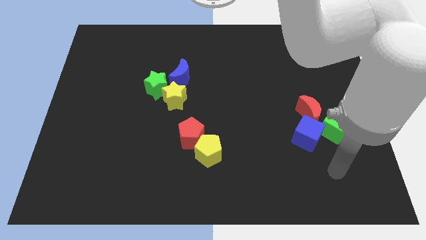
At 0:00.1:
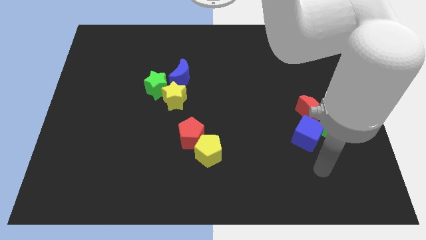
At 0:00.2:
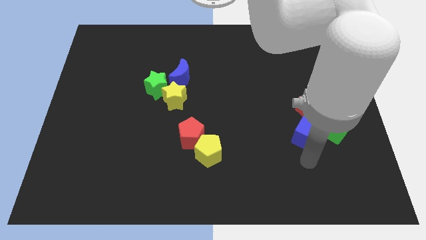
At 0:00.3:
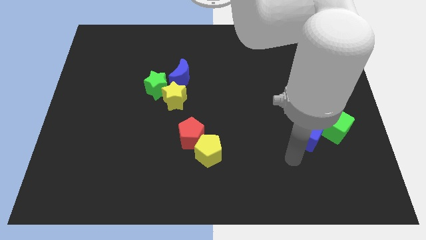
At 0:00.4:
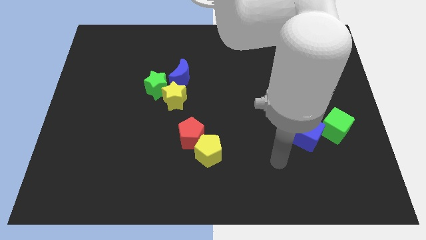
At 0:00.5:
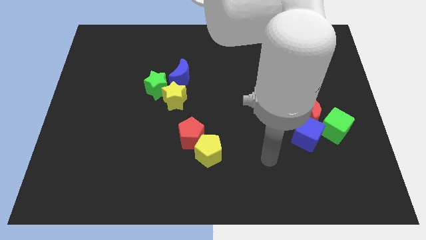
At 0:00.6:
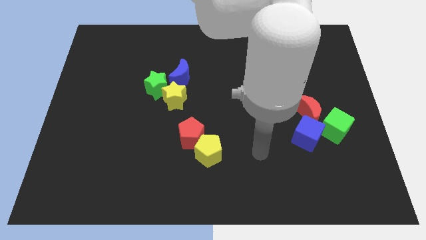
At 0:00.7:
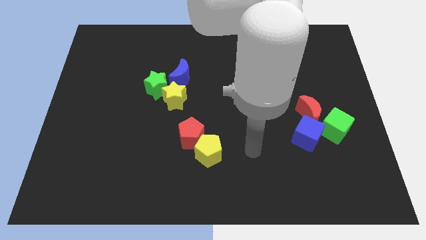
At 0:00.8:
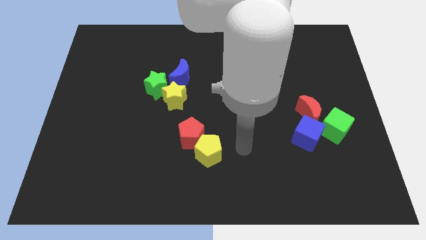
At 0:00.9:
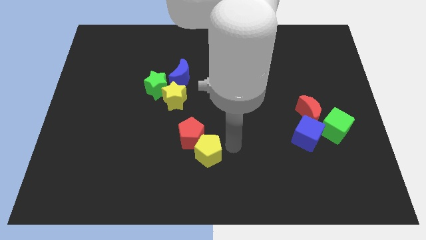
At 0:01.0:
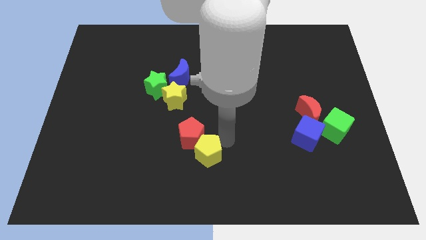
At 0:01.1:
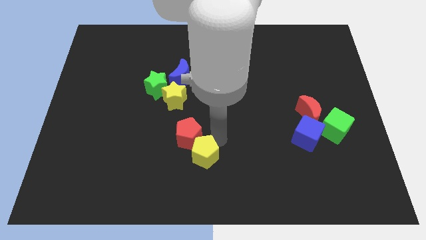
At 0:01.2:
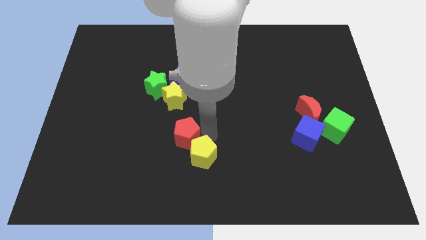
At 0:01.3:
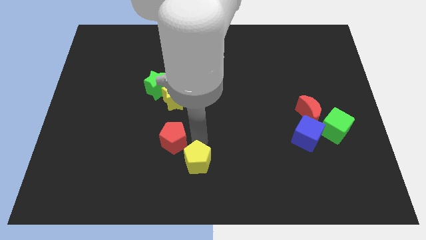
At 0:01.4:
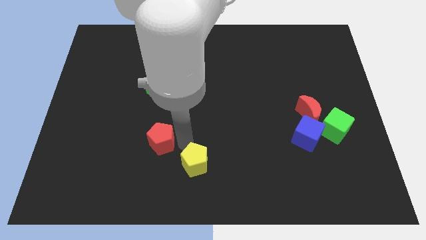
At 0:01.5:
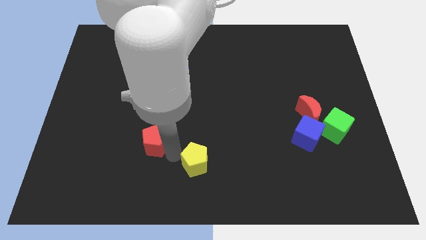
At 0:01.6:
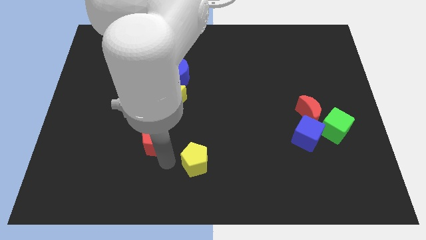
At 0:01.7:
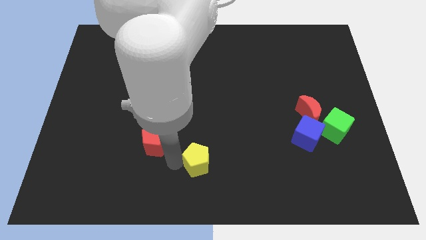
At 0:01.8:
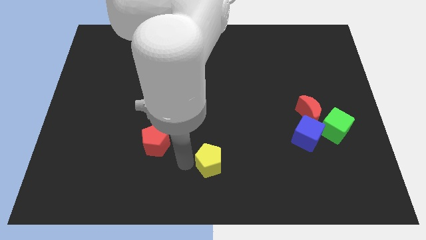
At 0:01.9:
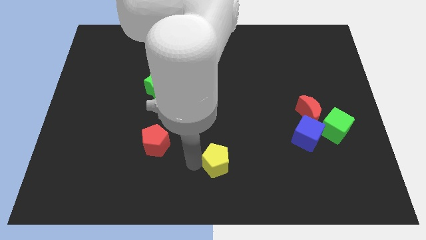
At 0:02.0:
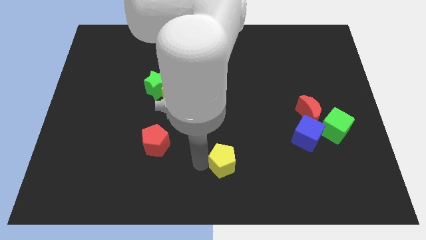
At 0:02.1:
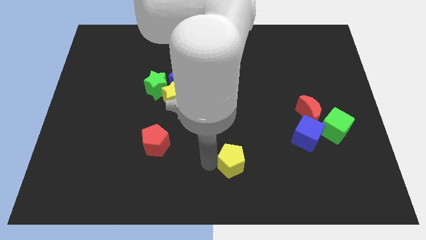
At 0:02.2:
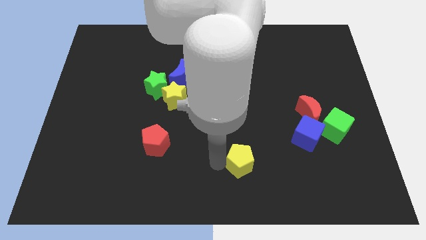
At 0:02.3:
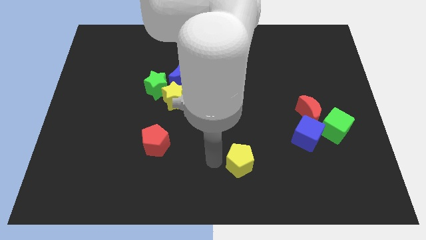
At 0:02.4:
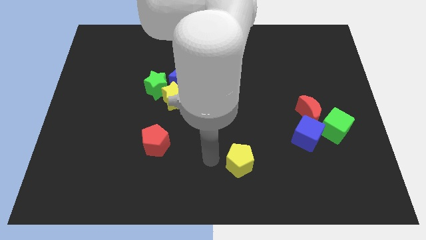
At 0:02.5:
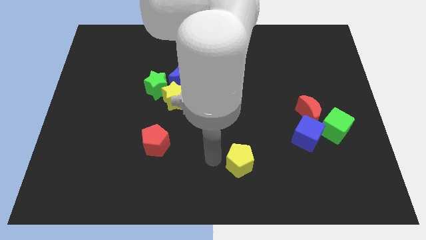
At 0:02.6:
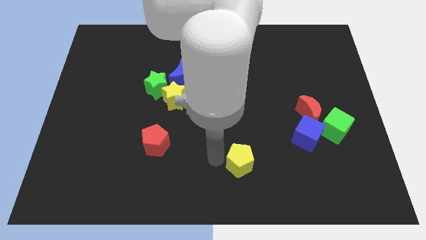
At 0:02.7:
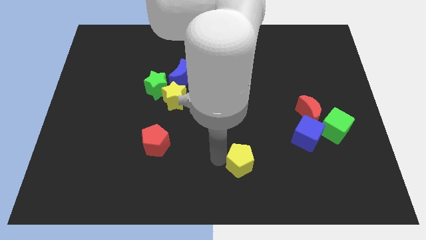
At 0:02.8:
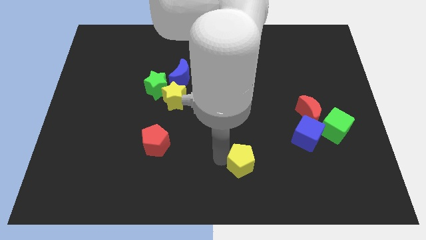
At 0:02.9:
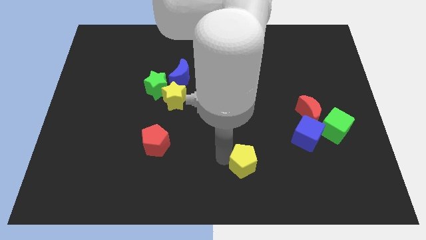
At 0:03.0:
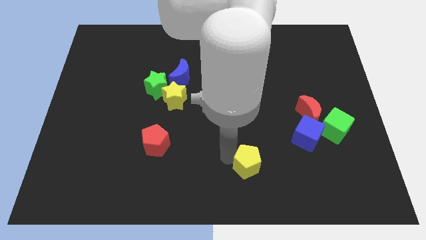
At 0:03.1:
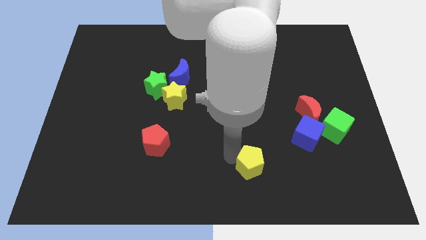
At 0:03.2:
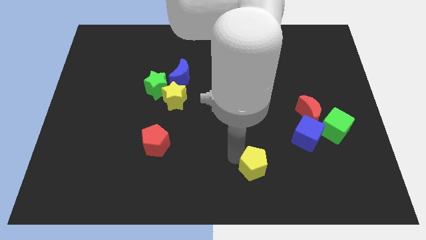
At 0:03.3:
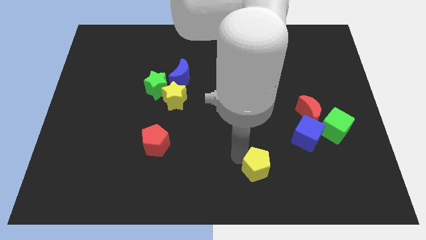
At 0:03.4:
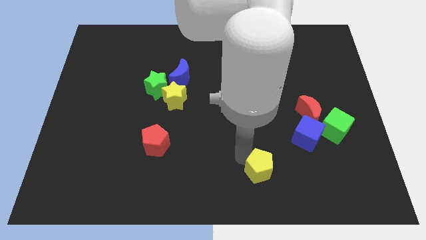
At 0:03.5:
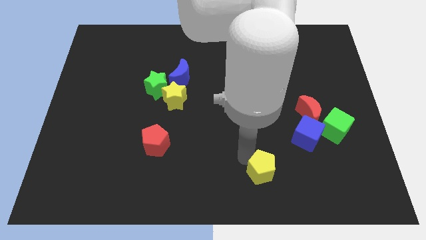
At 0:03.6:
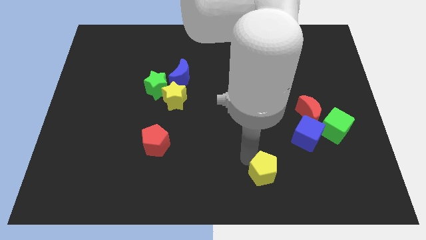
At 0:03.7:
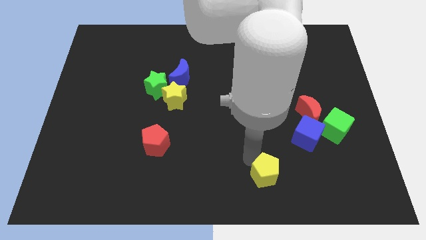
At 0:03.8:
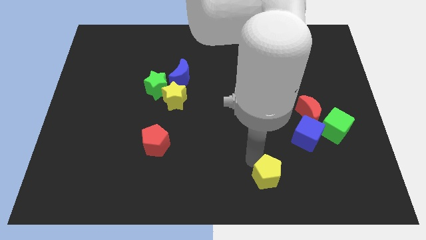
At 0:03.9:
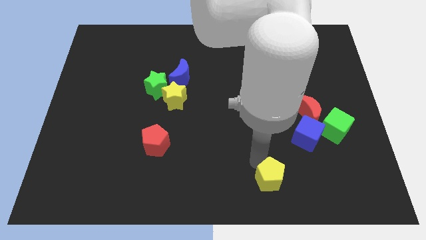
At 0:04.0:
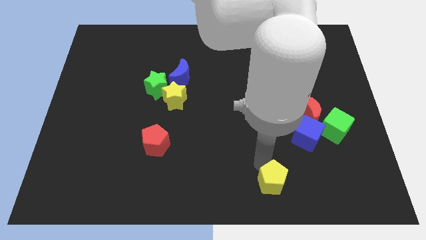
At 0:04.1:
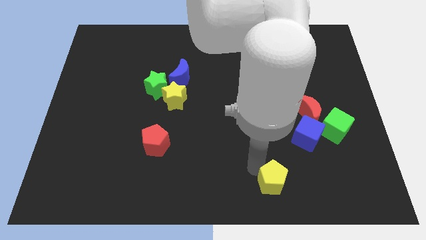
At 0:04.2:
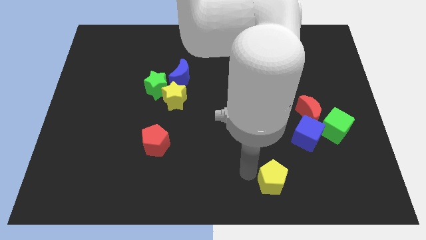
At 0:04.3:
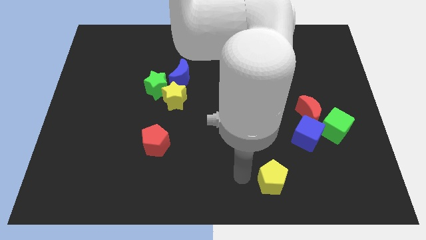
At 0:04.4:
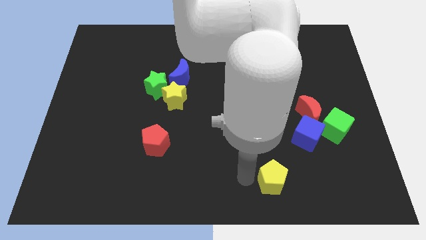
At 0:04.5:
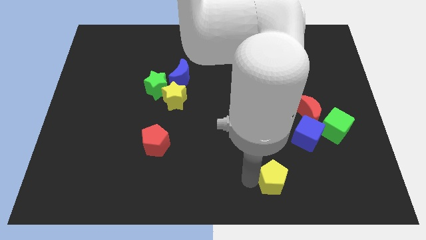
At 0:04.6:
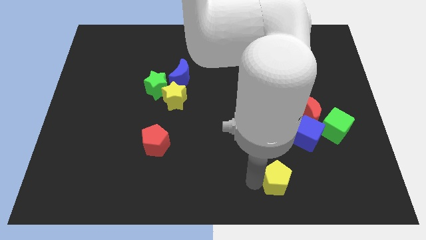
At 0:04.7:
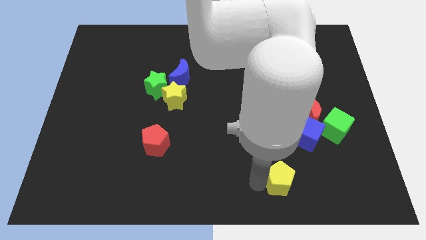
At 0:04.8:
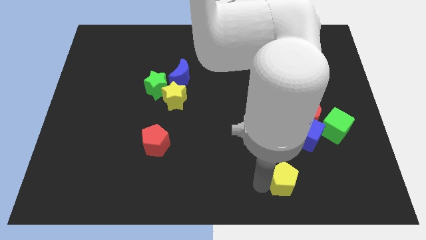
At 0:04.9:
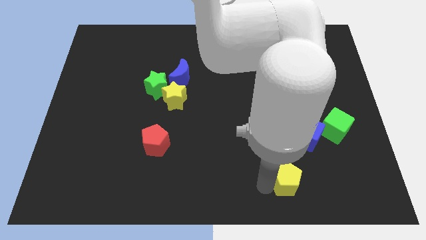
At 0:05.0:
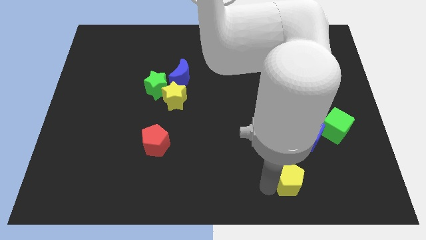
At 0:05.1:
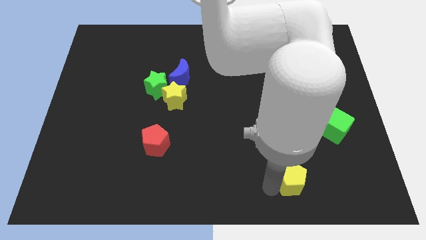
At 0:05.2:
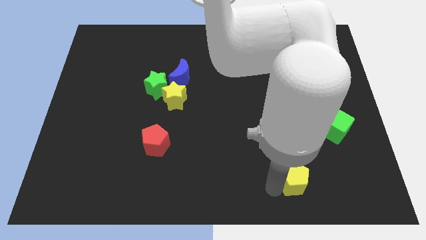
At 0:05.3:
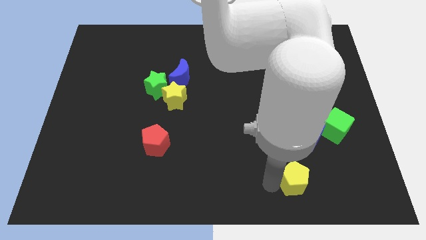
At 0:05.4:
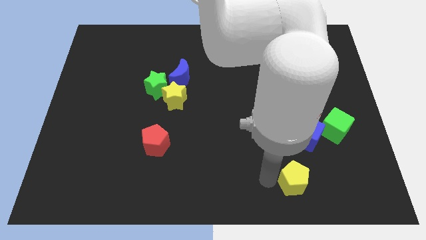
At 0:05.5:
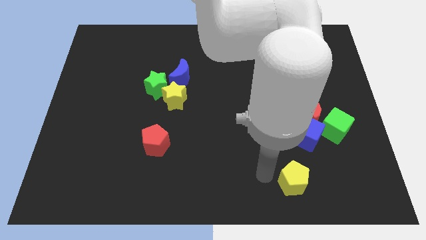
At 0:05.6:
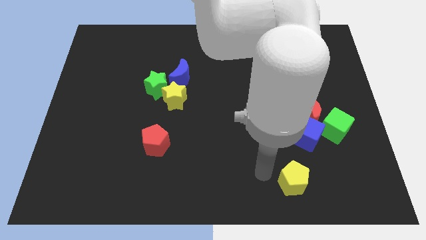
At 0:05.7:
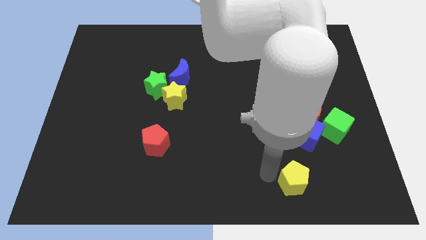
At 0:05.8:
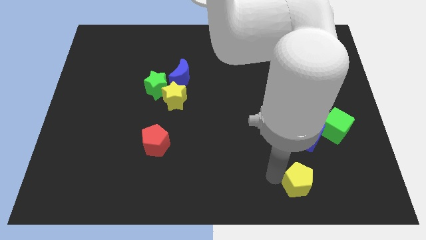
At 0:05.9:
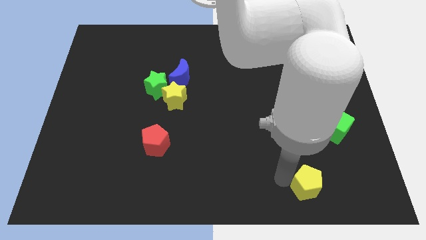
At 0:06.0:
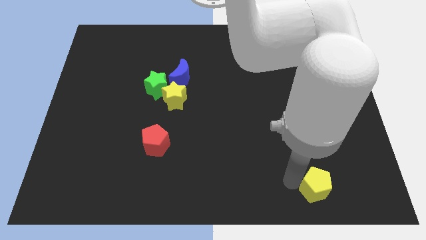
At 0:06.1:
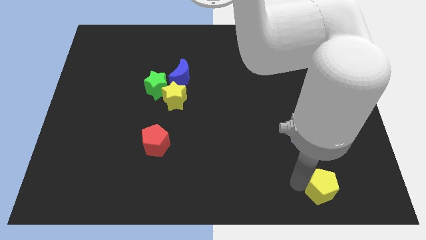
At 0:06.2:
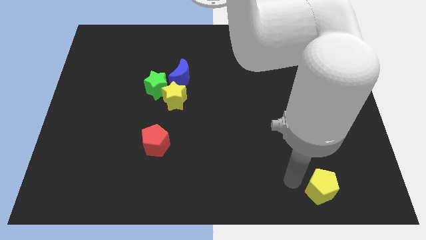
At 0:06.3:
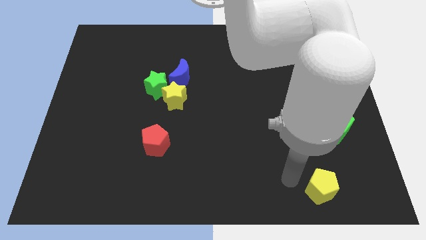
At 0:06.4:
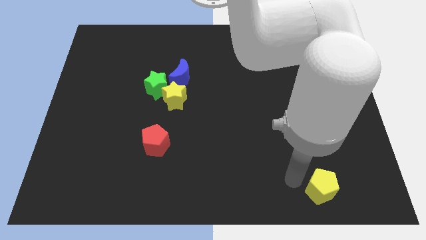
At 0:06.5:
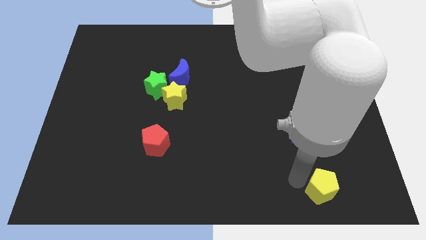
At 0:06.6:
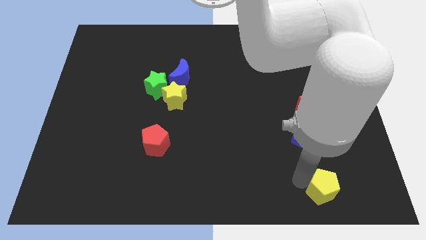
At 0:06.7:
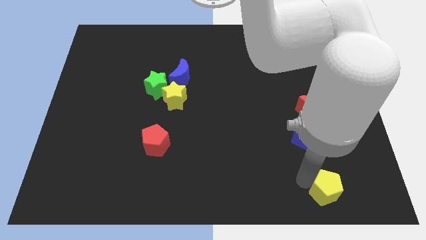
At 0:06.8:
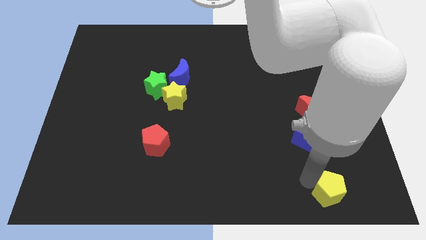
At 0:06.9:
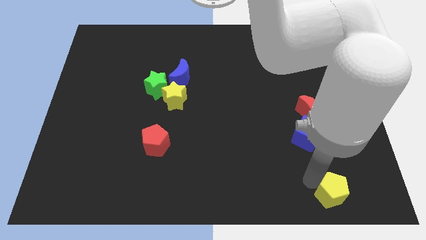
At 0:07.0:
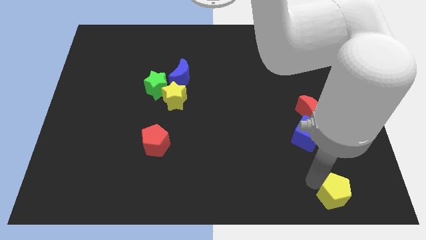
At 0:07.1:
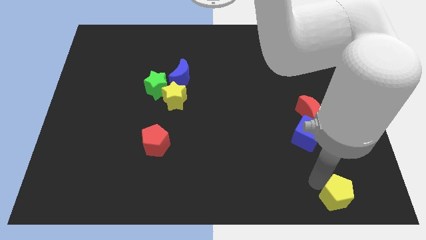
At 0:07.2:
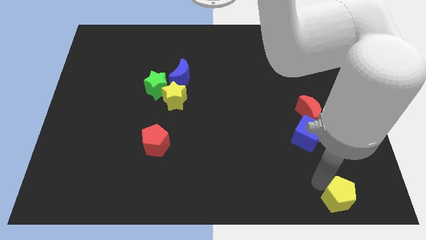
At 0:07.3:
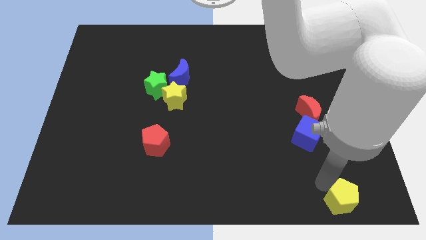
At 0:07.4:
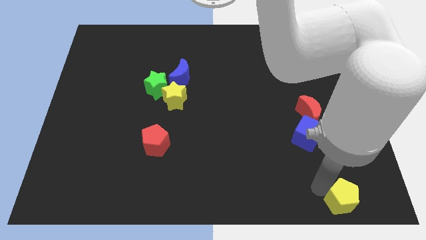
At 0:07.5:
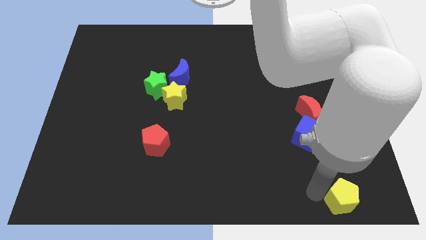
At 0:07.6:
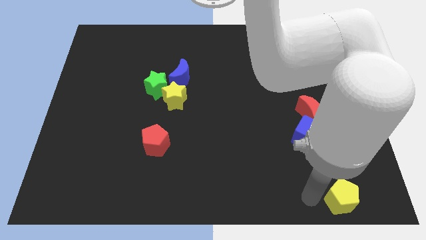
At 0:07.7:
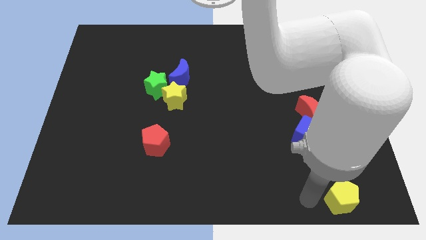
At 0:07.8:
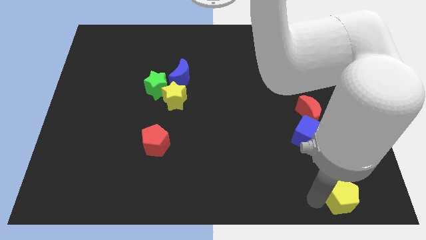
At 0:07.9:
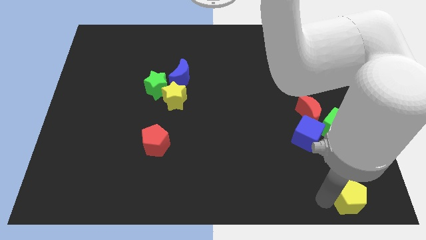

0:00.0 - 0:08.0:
put the yellow pentagon to the bottom right corner
